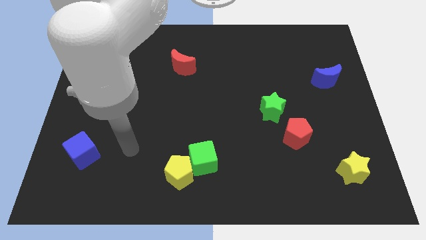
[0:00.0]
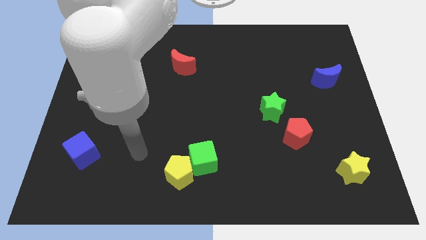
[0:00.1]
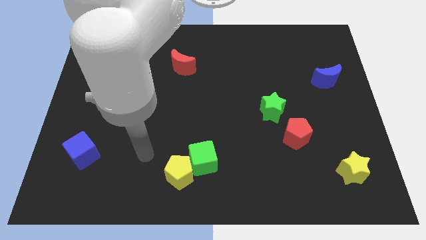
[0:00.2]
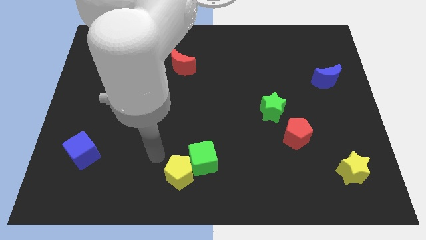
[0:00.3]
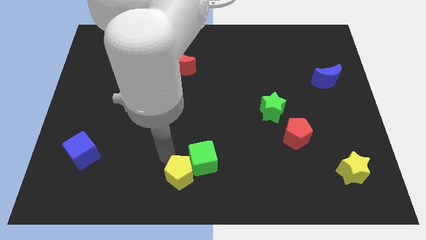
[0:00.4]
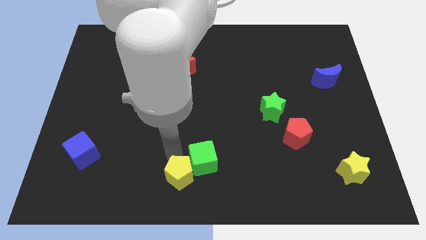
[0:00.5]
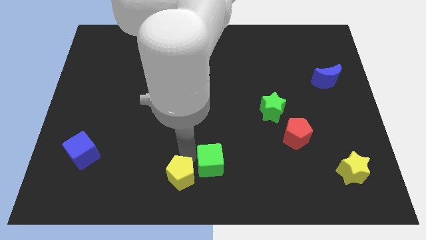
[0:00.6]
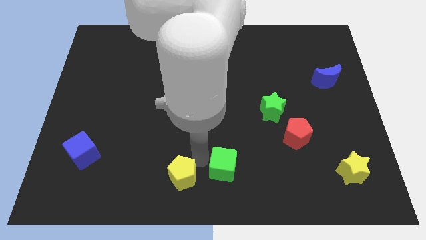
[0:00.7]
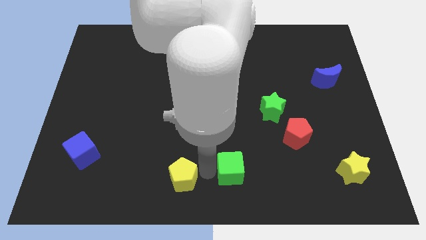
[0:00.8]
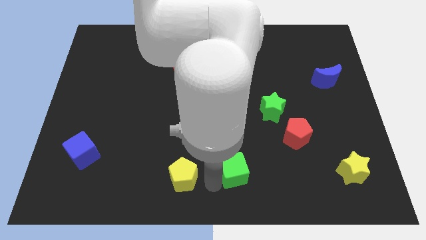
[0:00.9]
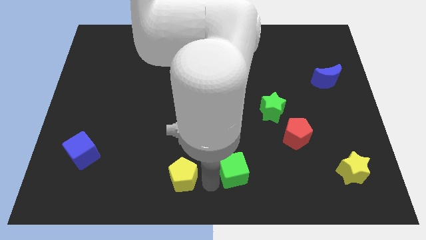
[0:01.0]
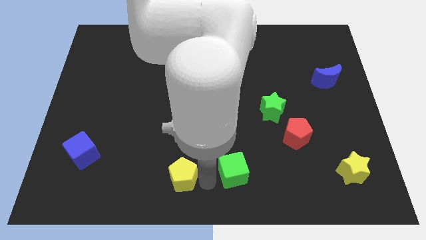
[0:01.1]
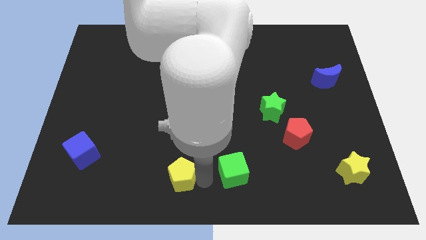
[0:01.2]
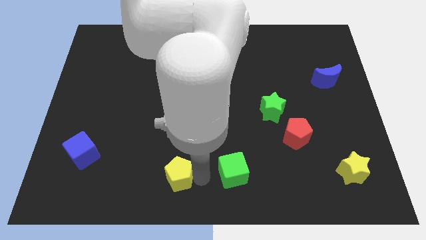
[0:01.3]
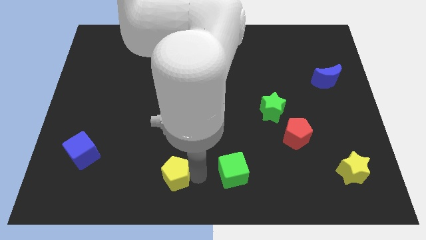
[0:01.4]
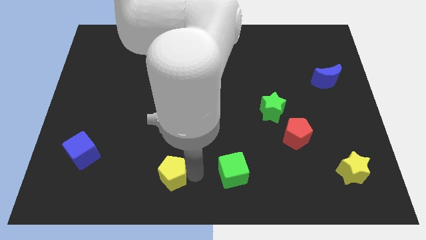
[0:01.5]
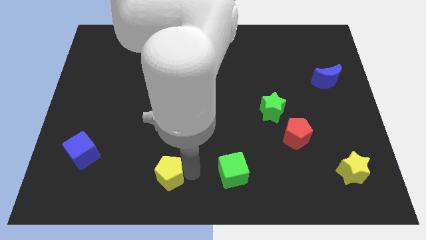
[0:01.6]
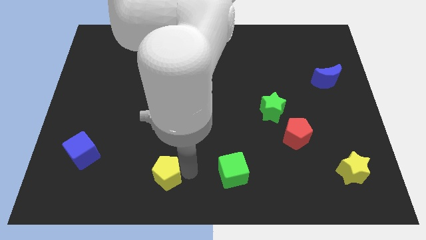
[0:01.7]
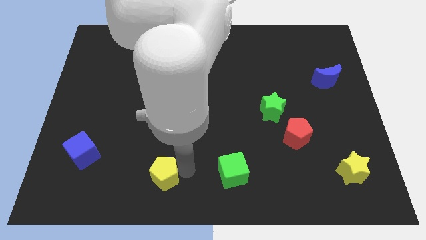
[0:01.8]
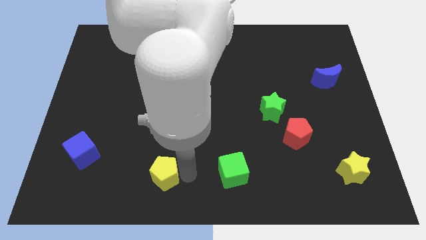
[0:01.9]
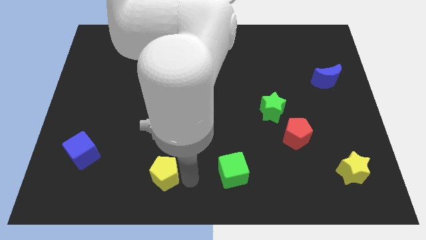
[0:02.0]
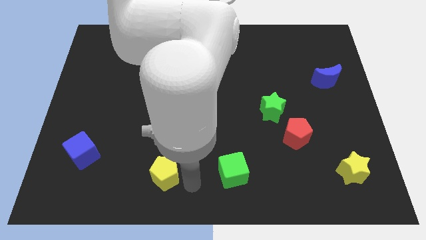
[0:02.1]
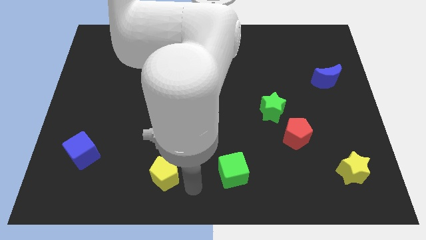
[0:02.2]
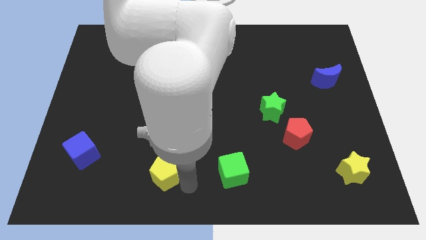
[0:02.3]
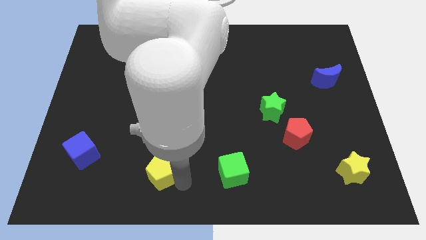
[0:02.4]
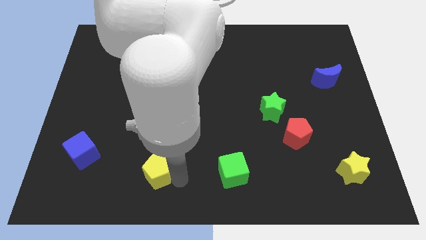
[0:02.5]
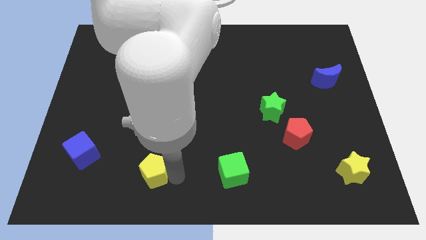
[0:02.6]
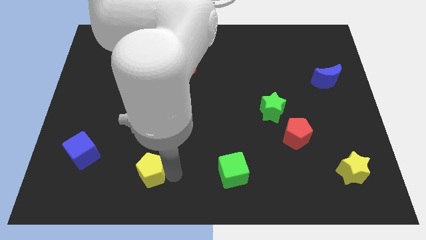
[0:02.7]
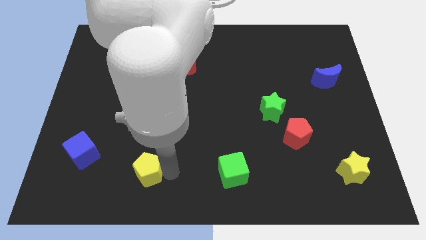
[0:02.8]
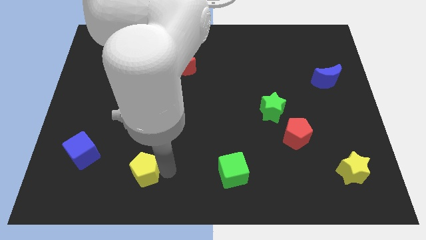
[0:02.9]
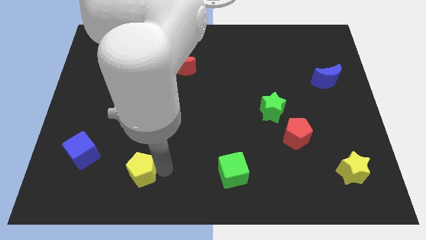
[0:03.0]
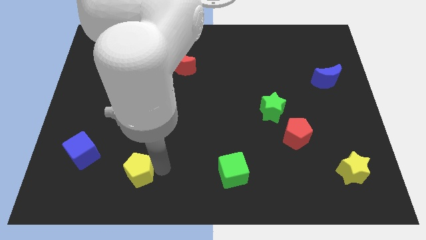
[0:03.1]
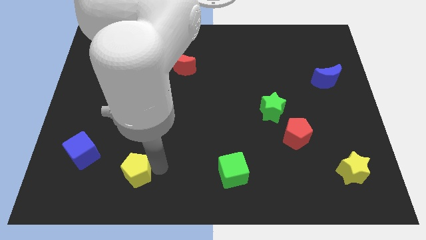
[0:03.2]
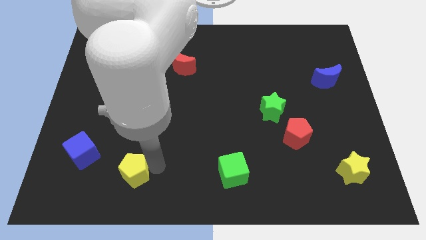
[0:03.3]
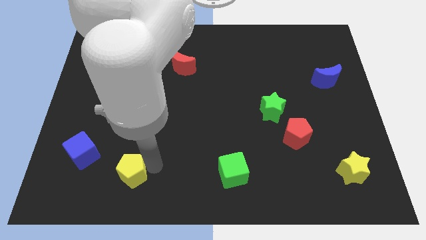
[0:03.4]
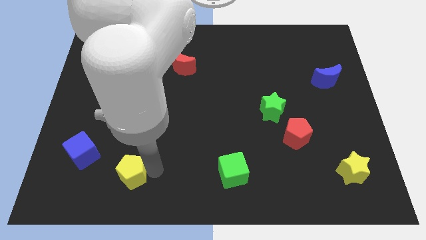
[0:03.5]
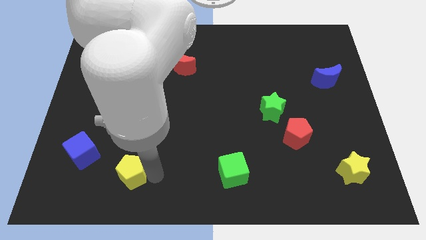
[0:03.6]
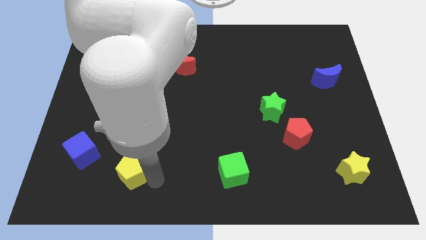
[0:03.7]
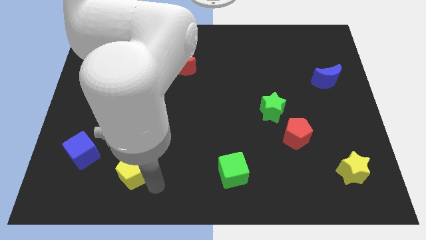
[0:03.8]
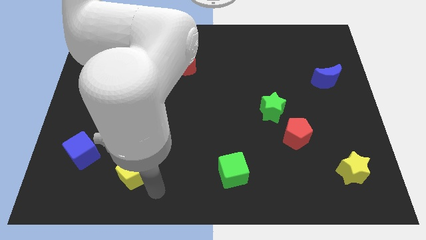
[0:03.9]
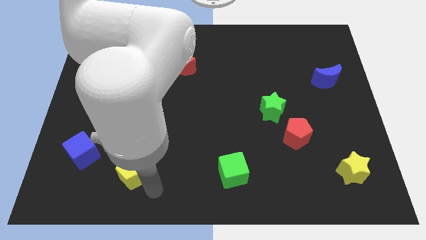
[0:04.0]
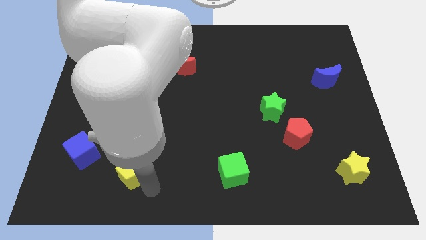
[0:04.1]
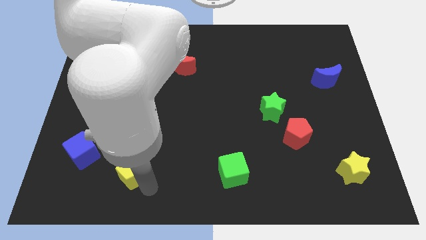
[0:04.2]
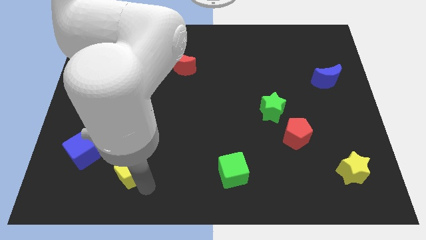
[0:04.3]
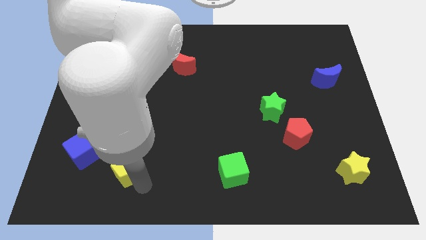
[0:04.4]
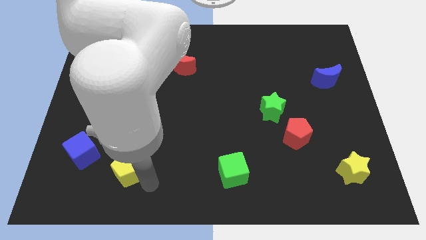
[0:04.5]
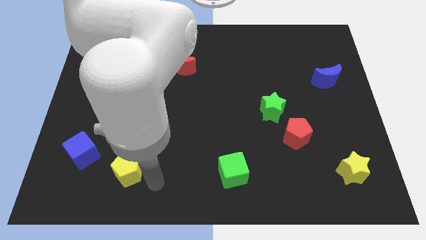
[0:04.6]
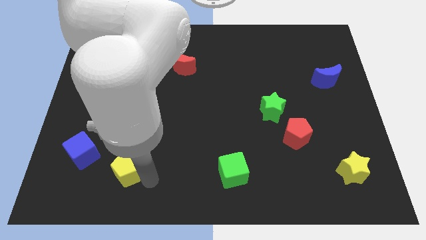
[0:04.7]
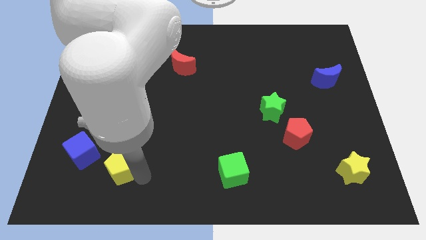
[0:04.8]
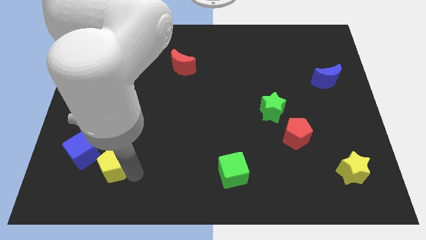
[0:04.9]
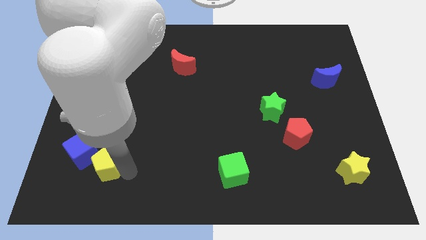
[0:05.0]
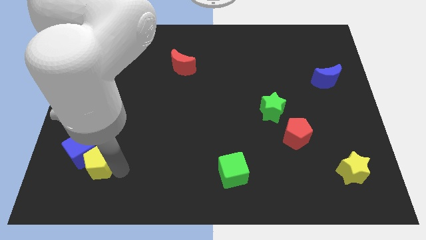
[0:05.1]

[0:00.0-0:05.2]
slide the yellow pentagon close to the blue cube

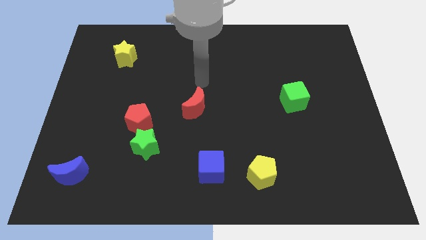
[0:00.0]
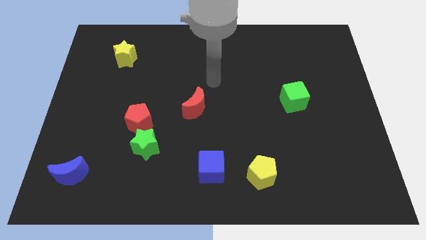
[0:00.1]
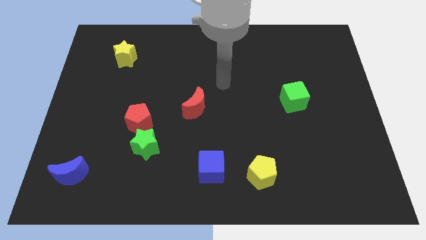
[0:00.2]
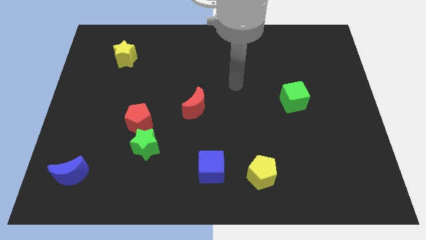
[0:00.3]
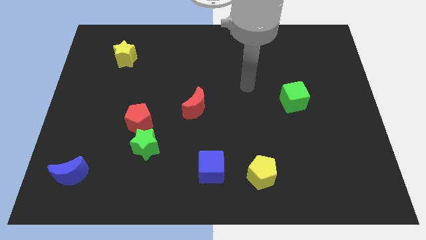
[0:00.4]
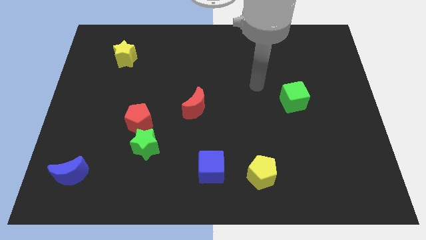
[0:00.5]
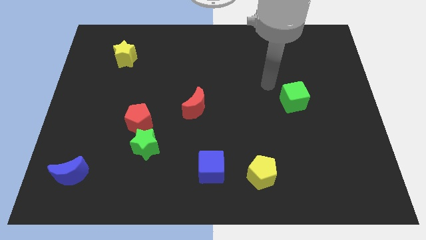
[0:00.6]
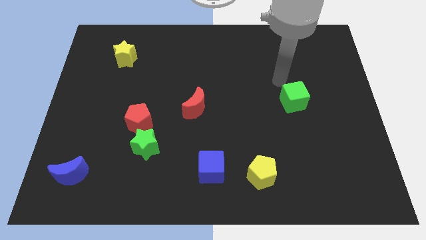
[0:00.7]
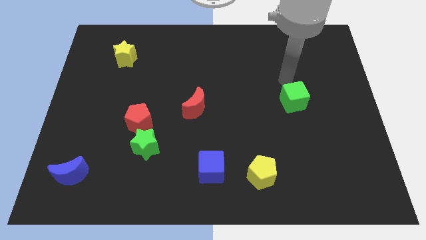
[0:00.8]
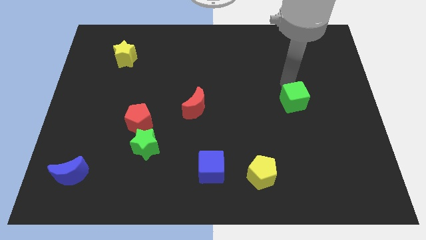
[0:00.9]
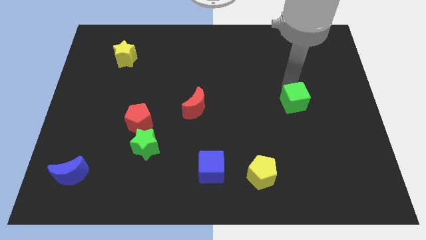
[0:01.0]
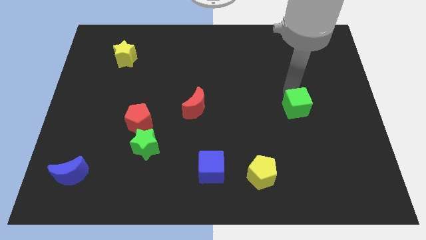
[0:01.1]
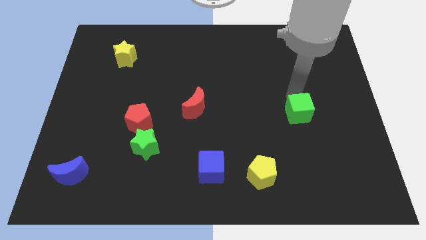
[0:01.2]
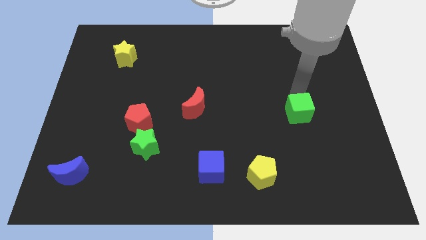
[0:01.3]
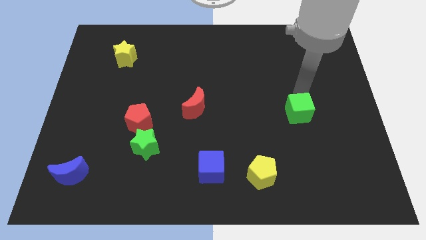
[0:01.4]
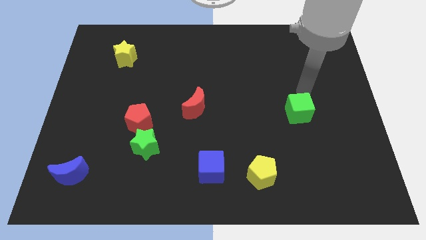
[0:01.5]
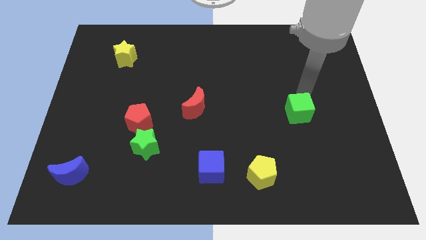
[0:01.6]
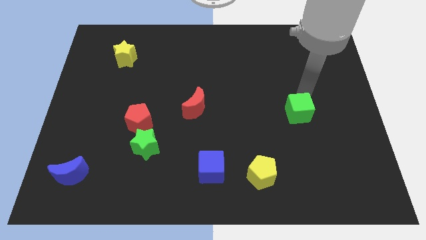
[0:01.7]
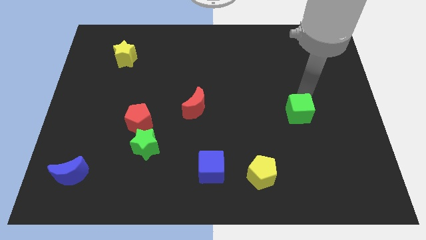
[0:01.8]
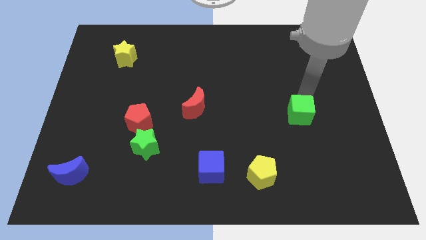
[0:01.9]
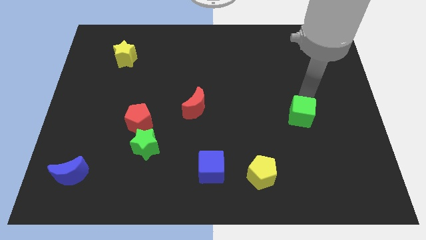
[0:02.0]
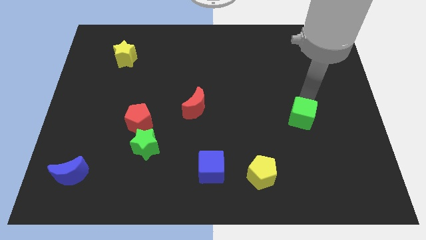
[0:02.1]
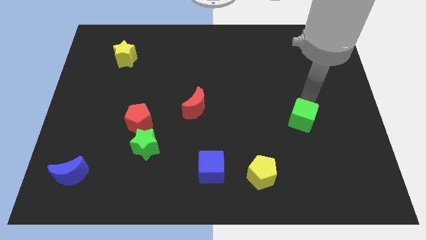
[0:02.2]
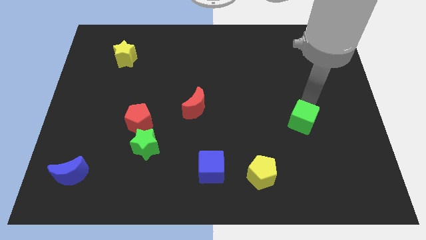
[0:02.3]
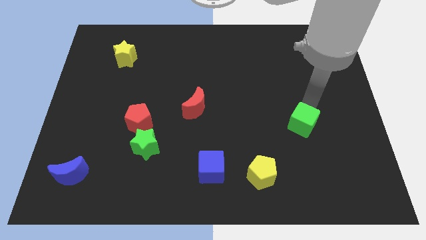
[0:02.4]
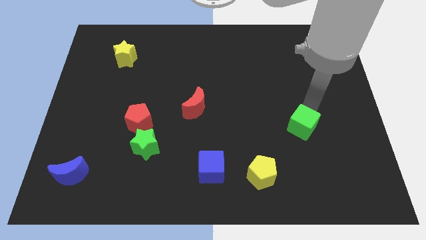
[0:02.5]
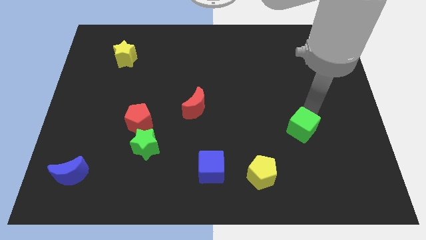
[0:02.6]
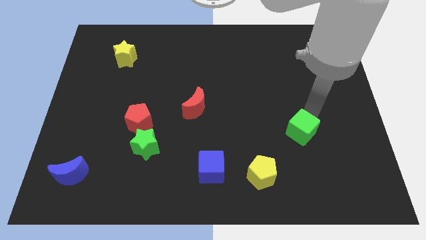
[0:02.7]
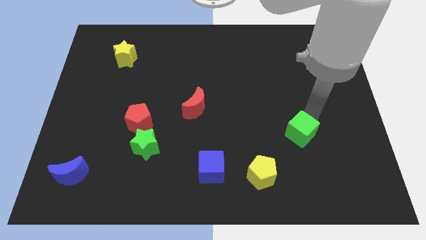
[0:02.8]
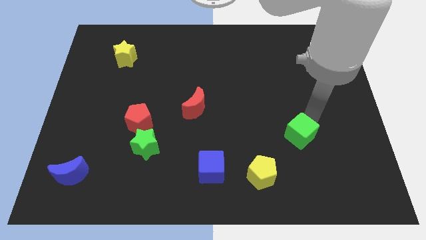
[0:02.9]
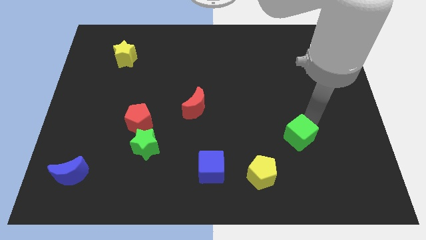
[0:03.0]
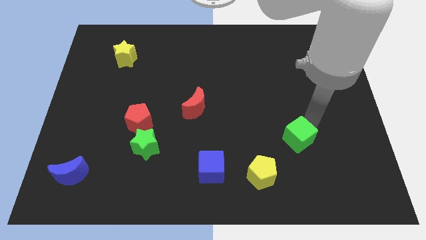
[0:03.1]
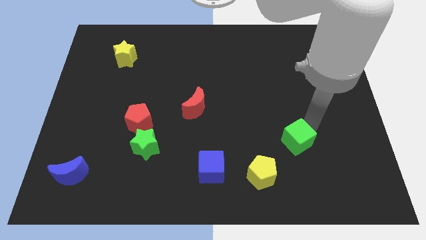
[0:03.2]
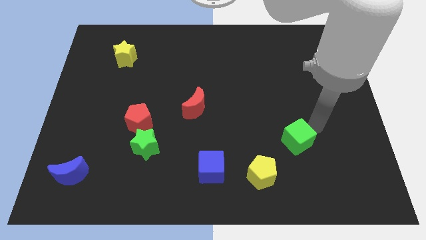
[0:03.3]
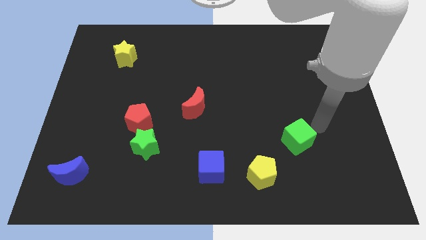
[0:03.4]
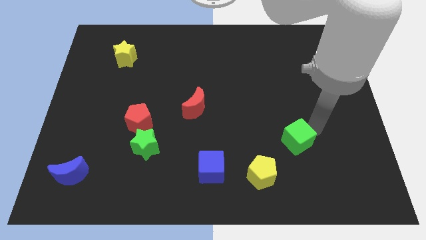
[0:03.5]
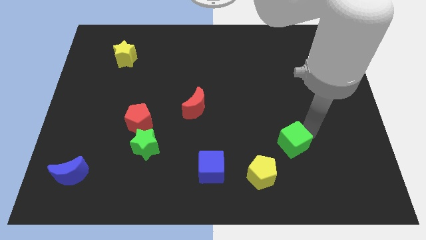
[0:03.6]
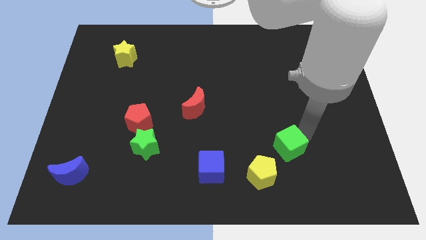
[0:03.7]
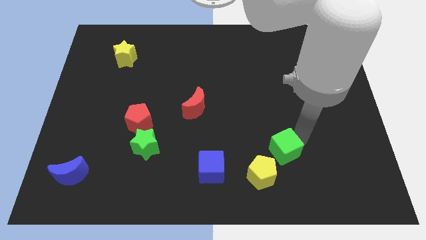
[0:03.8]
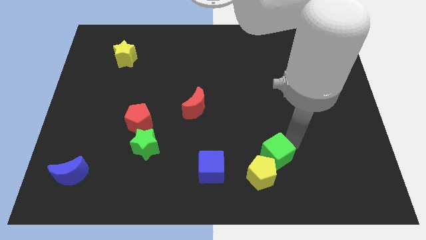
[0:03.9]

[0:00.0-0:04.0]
put the green cube to the yellow pentagon
